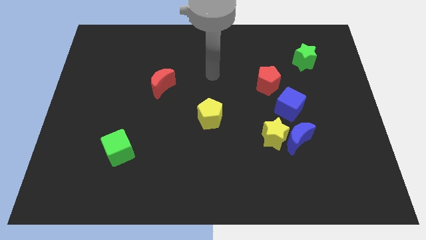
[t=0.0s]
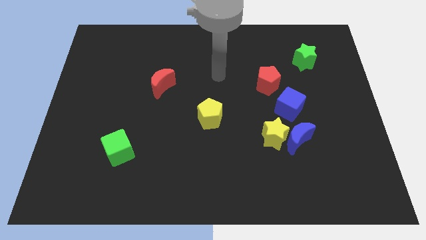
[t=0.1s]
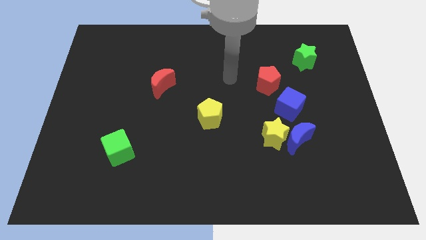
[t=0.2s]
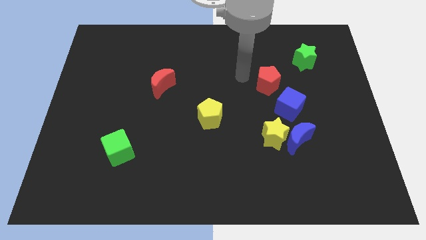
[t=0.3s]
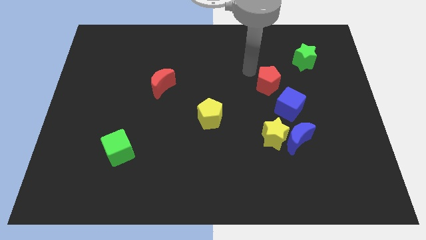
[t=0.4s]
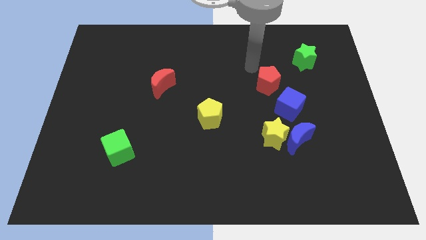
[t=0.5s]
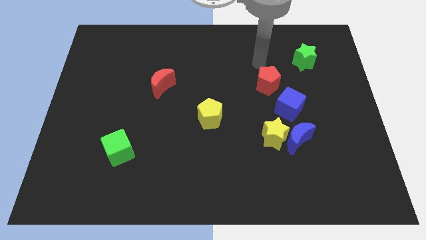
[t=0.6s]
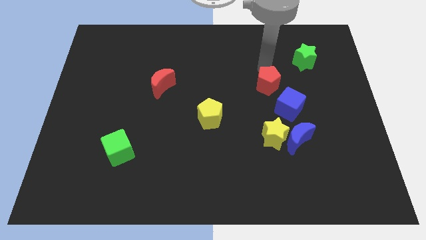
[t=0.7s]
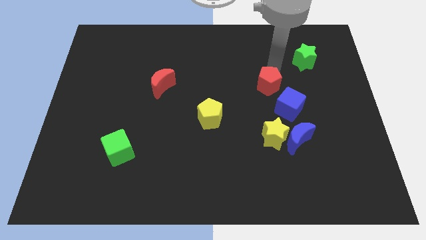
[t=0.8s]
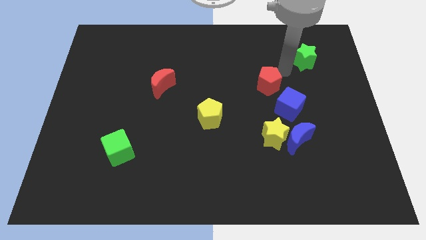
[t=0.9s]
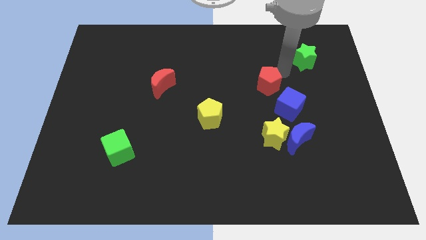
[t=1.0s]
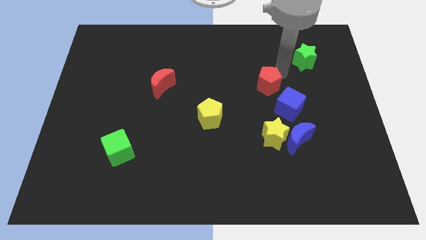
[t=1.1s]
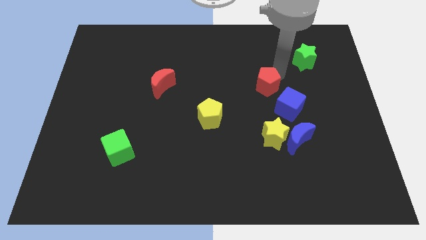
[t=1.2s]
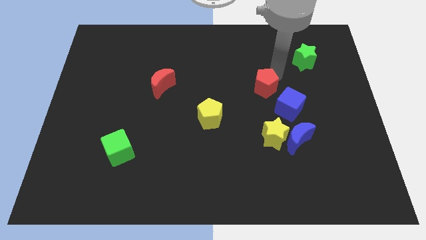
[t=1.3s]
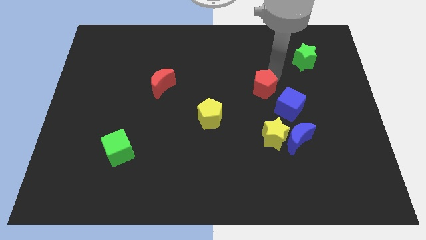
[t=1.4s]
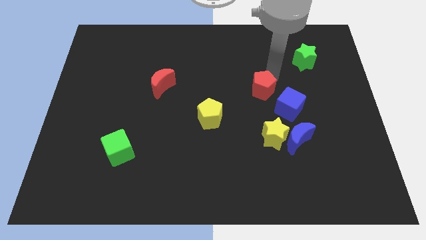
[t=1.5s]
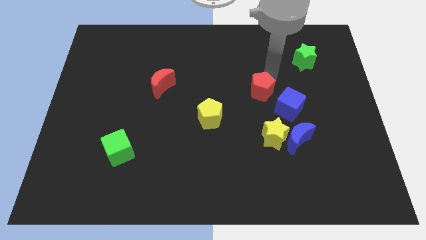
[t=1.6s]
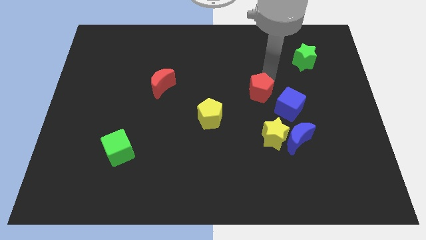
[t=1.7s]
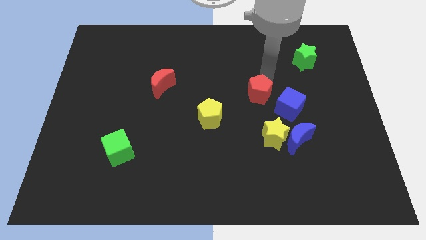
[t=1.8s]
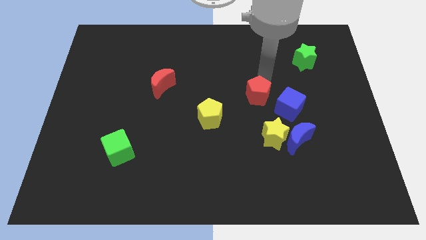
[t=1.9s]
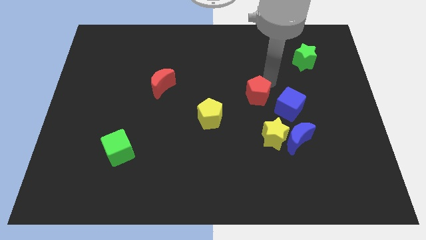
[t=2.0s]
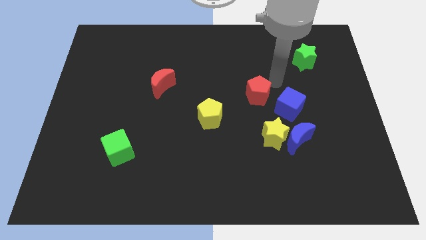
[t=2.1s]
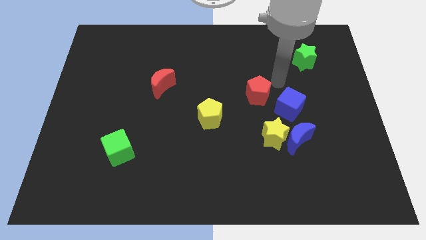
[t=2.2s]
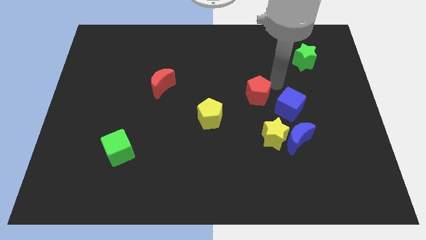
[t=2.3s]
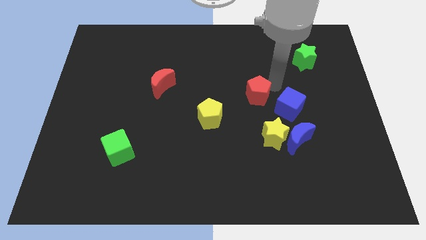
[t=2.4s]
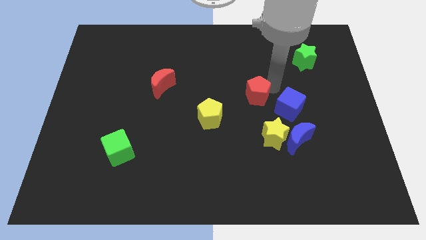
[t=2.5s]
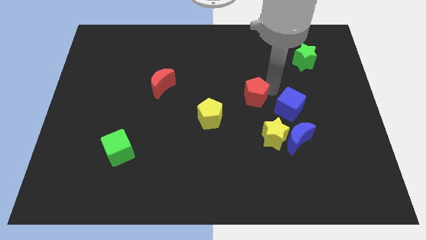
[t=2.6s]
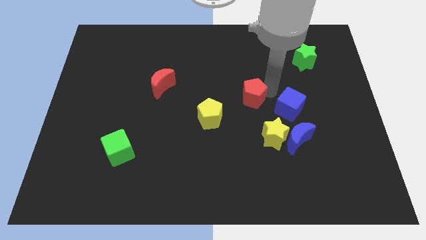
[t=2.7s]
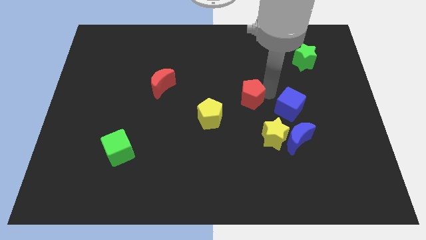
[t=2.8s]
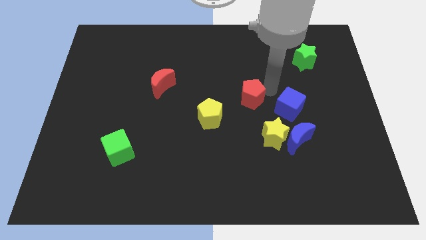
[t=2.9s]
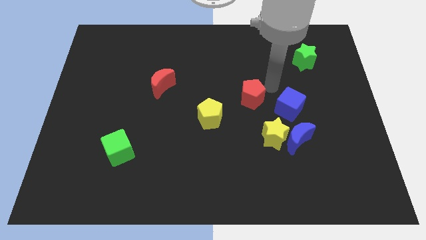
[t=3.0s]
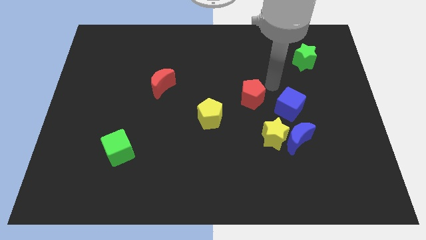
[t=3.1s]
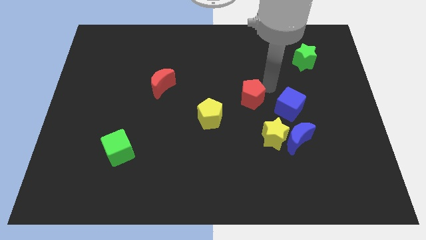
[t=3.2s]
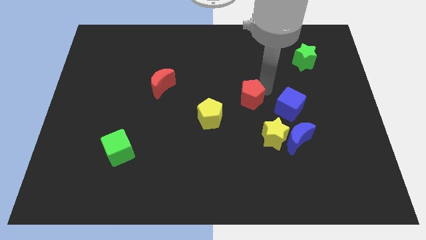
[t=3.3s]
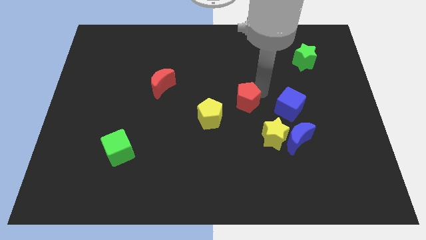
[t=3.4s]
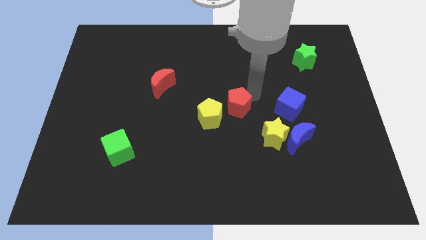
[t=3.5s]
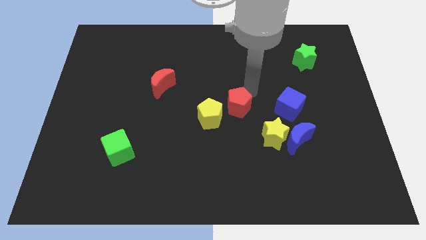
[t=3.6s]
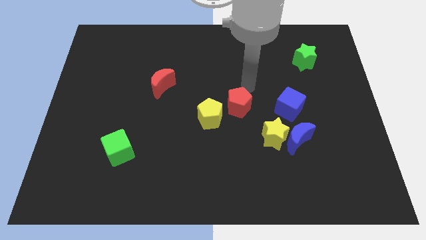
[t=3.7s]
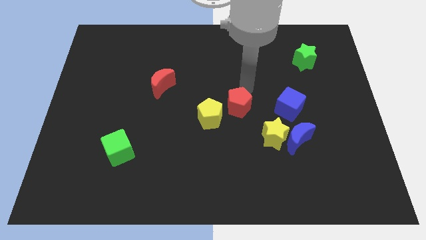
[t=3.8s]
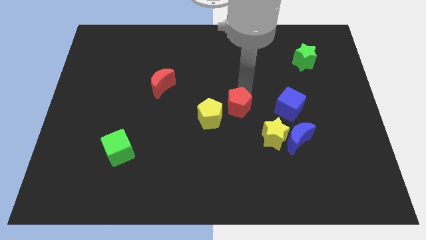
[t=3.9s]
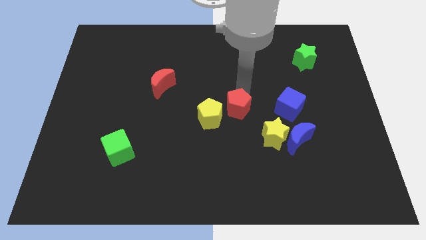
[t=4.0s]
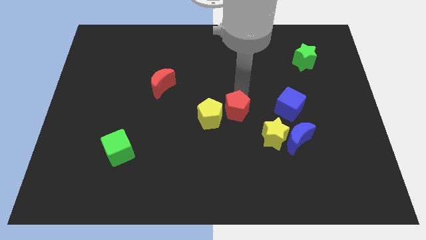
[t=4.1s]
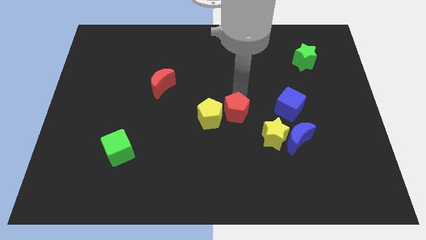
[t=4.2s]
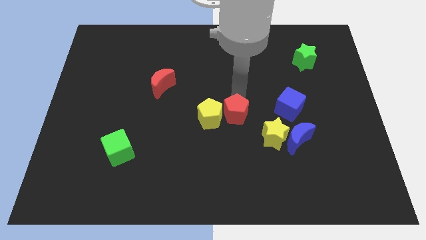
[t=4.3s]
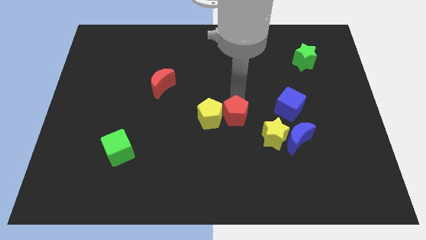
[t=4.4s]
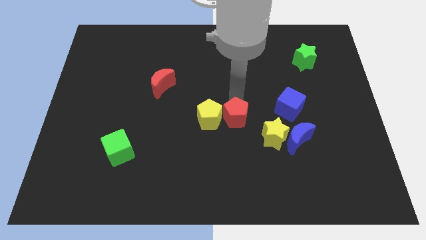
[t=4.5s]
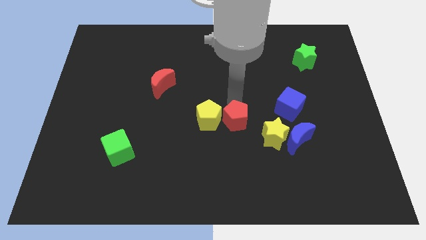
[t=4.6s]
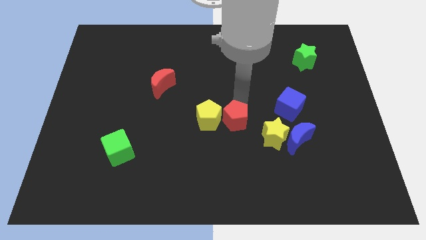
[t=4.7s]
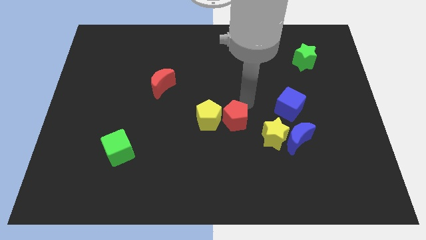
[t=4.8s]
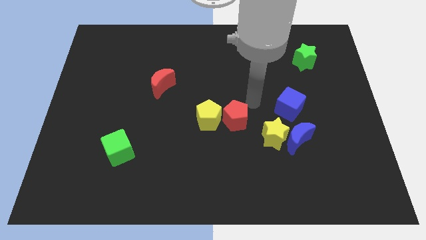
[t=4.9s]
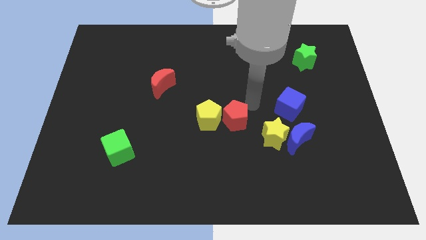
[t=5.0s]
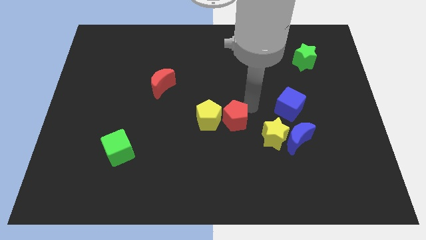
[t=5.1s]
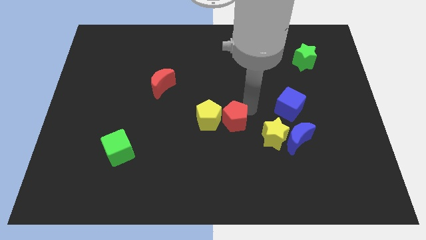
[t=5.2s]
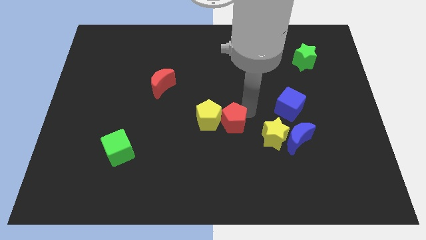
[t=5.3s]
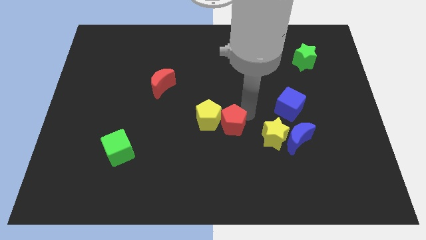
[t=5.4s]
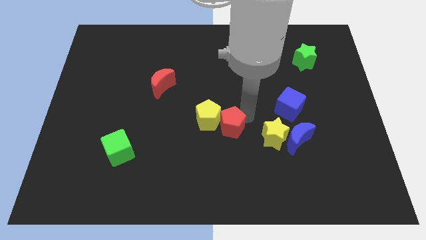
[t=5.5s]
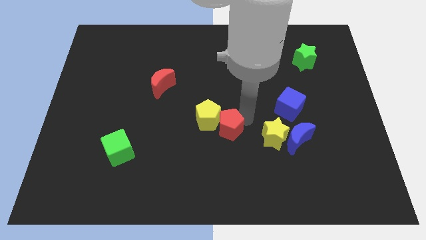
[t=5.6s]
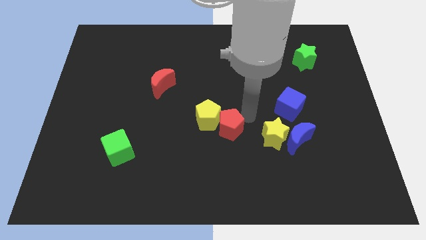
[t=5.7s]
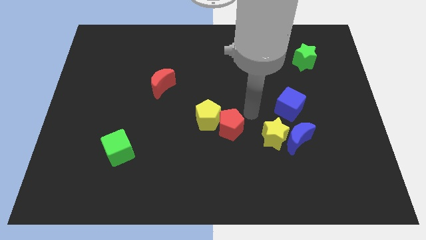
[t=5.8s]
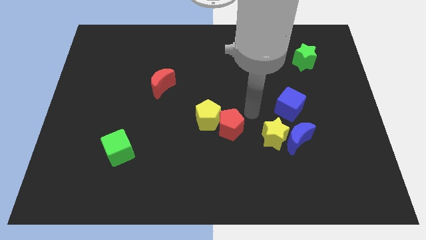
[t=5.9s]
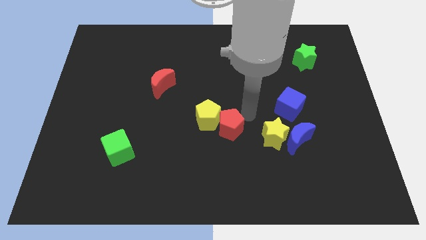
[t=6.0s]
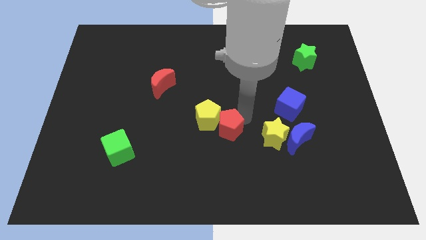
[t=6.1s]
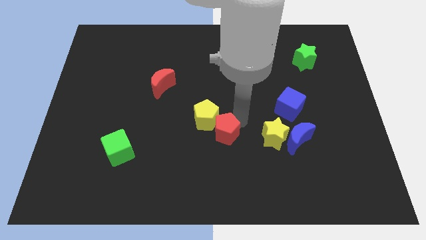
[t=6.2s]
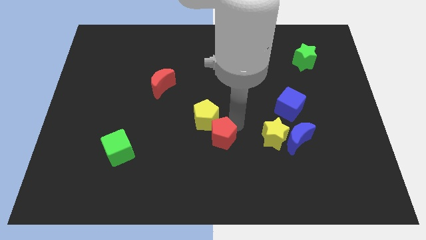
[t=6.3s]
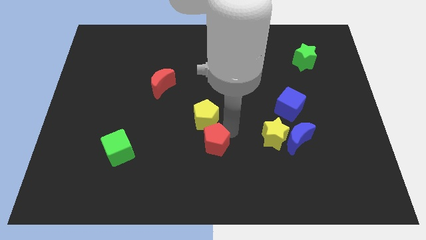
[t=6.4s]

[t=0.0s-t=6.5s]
push the red pentagon downwards and then to the left

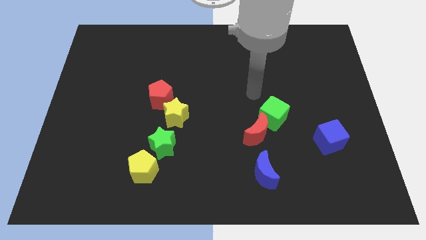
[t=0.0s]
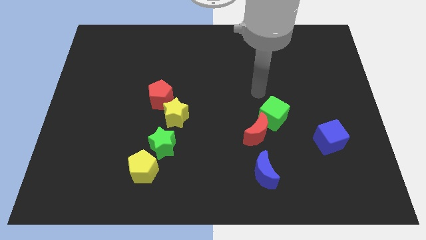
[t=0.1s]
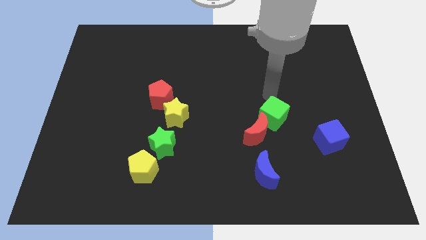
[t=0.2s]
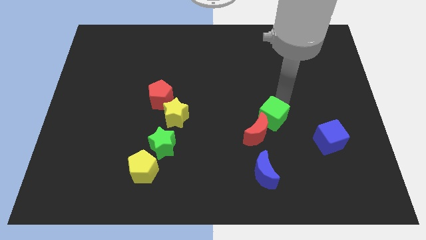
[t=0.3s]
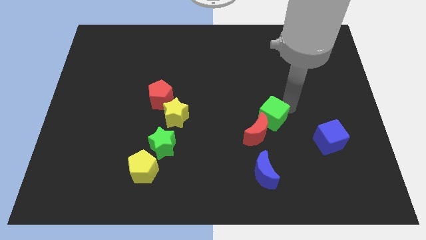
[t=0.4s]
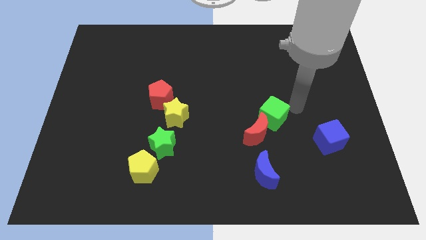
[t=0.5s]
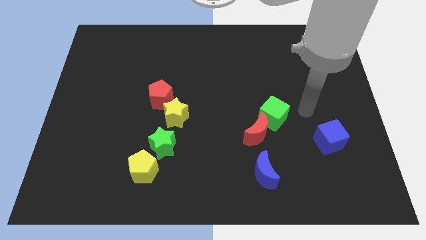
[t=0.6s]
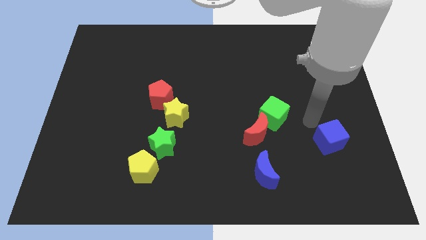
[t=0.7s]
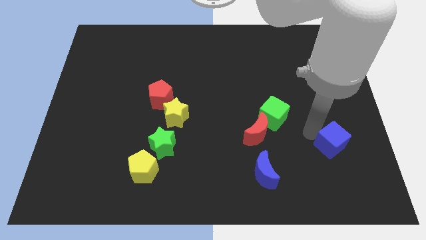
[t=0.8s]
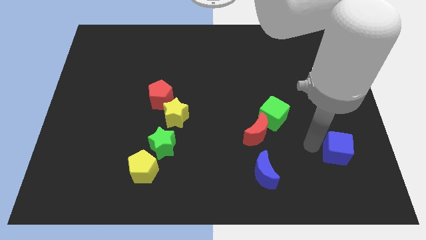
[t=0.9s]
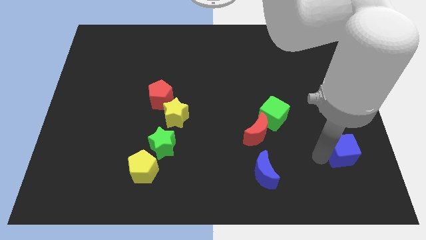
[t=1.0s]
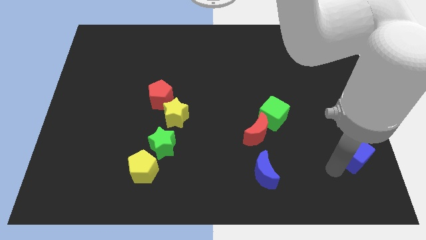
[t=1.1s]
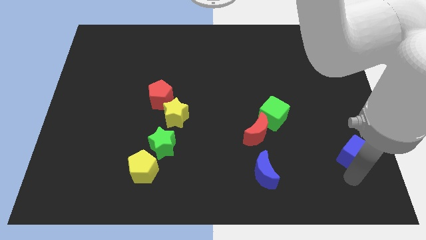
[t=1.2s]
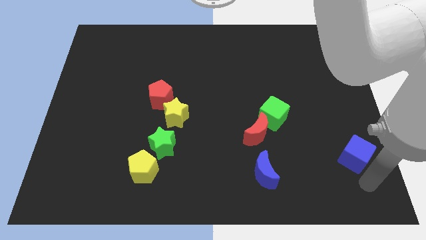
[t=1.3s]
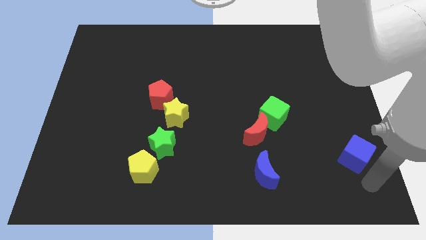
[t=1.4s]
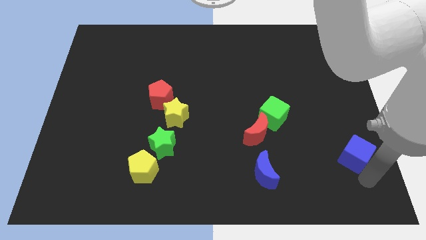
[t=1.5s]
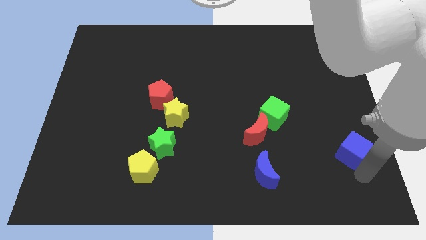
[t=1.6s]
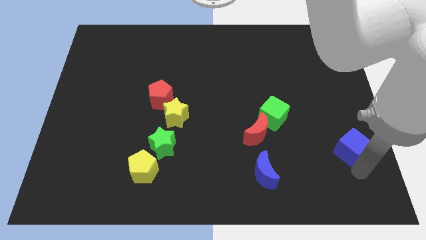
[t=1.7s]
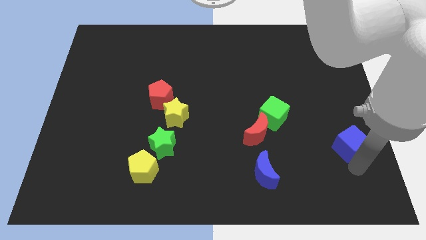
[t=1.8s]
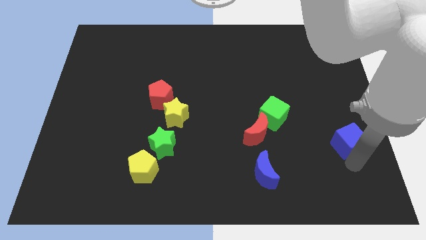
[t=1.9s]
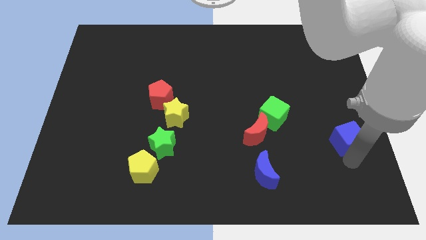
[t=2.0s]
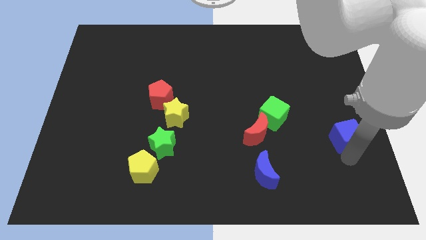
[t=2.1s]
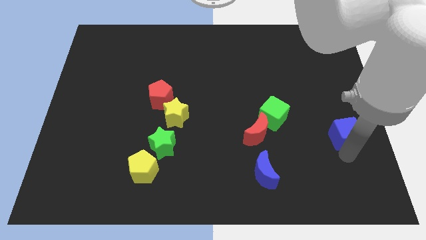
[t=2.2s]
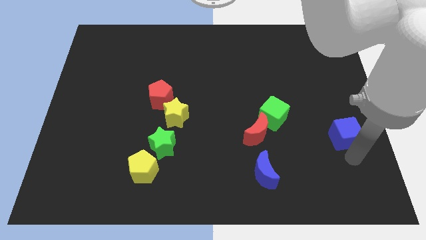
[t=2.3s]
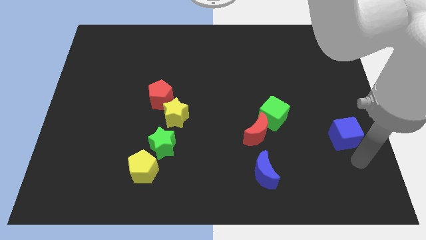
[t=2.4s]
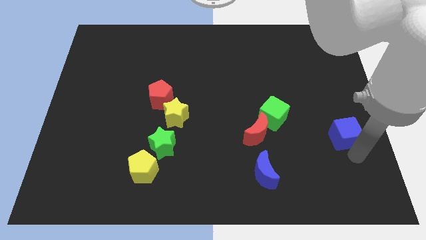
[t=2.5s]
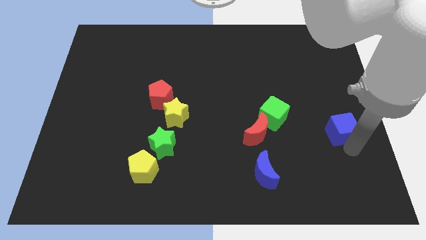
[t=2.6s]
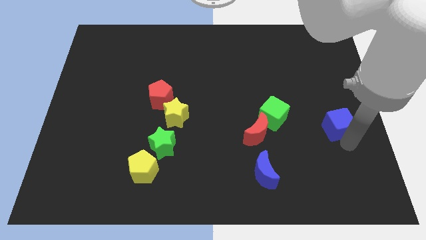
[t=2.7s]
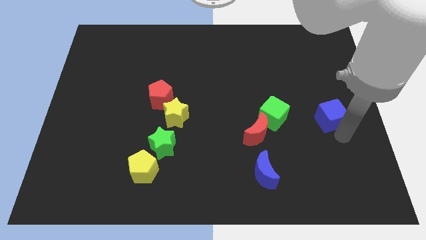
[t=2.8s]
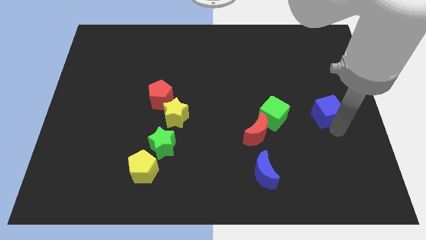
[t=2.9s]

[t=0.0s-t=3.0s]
slightly slide the blue cube up
